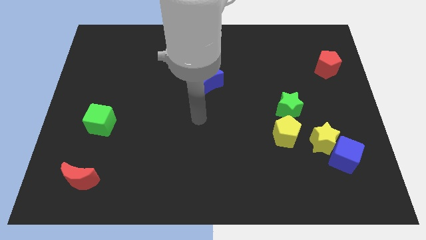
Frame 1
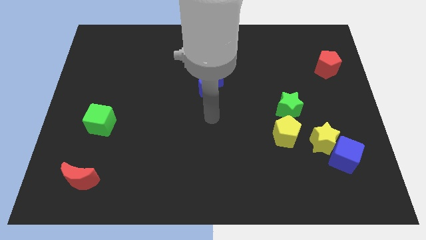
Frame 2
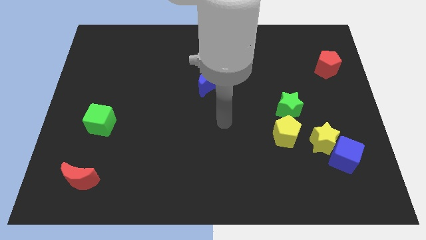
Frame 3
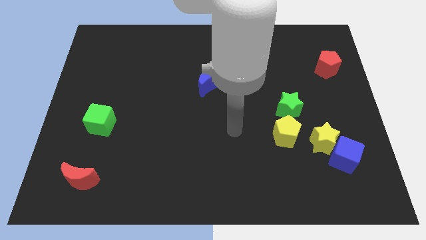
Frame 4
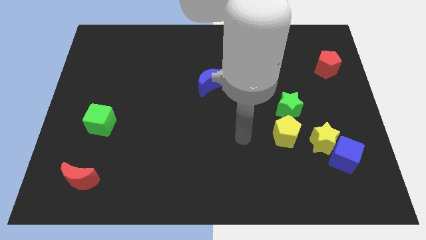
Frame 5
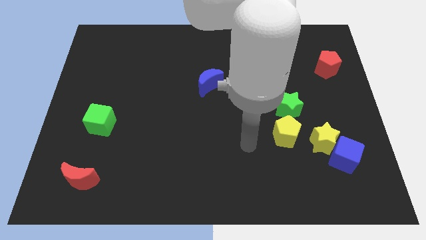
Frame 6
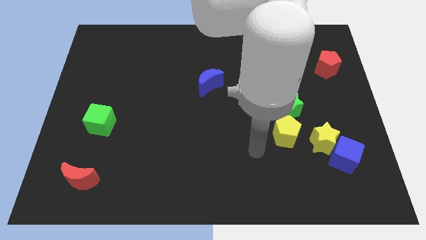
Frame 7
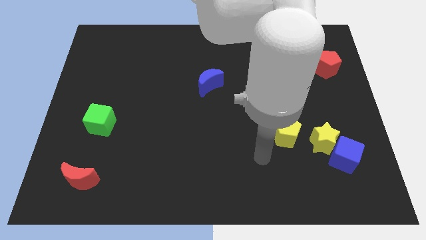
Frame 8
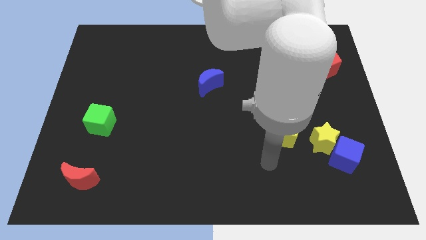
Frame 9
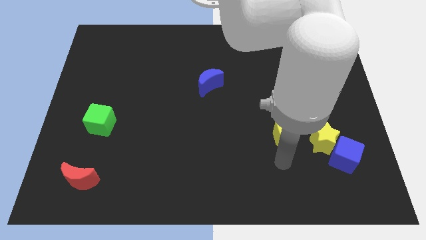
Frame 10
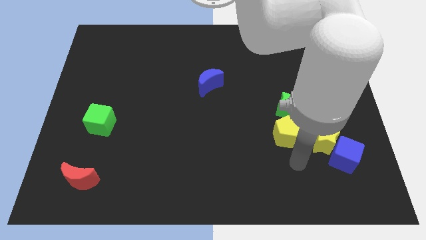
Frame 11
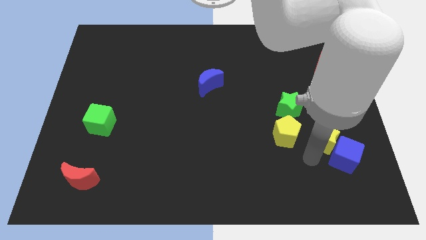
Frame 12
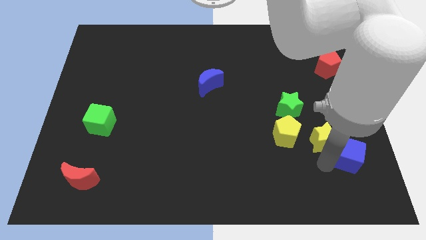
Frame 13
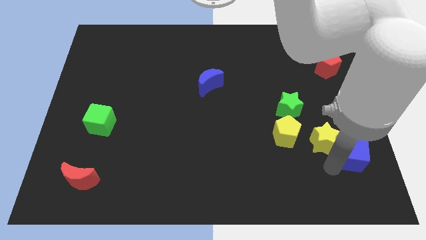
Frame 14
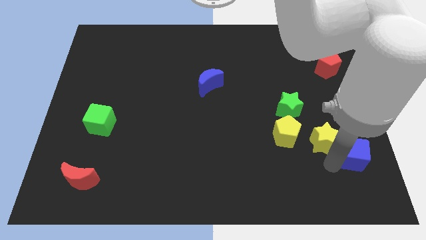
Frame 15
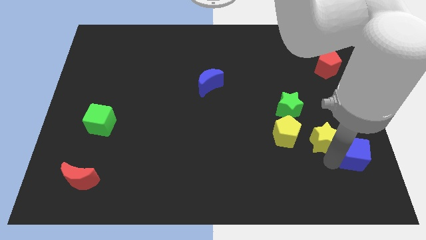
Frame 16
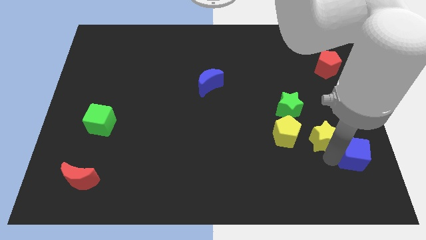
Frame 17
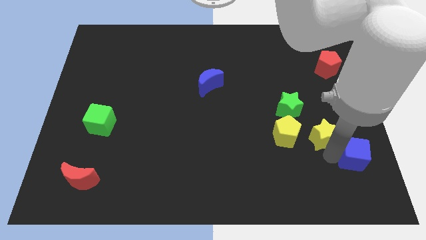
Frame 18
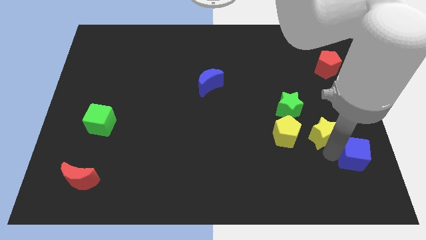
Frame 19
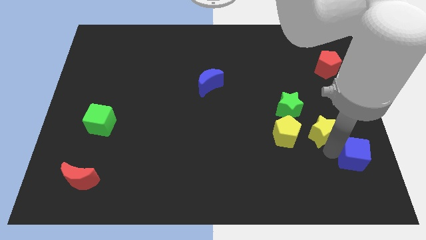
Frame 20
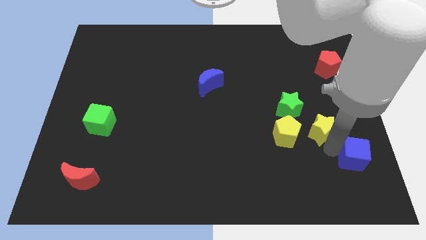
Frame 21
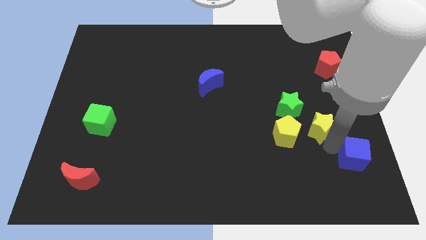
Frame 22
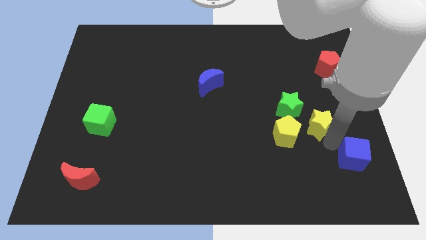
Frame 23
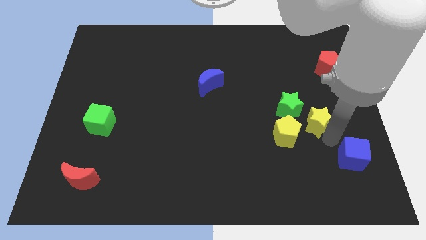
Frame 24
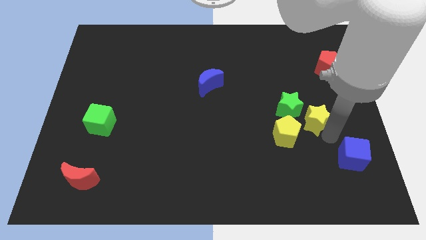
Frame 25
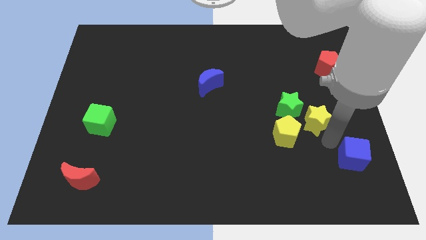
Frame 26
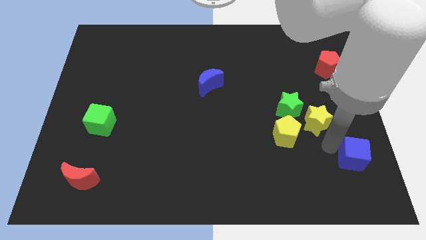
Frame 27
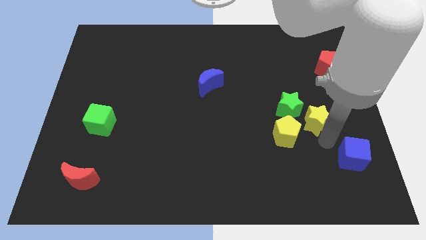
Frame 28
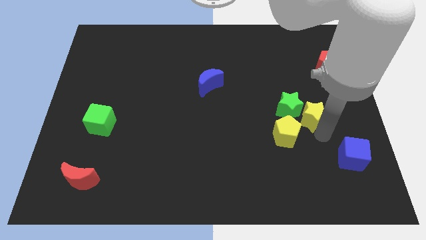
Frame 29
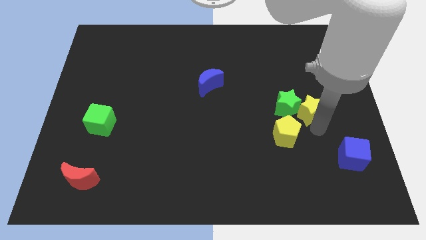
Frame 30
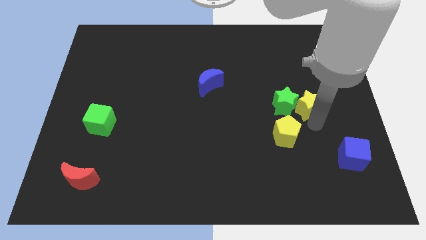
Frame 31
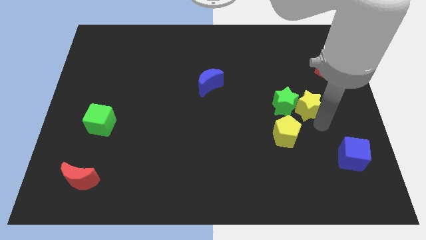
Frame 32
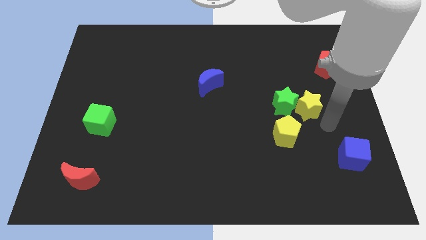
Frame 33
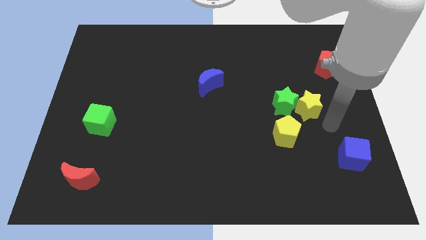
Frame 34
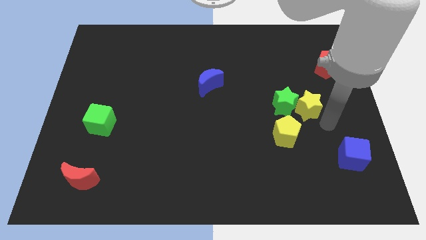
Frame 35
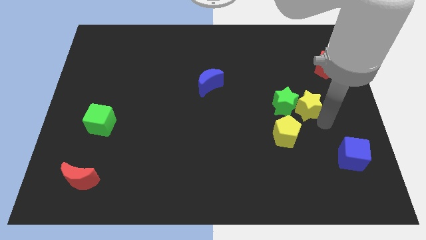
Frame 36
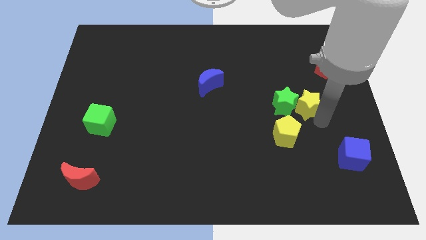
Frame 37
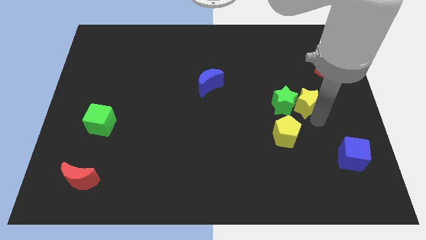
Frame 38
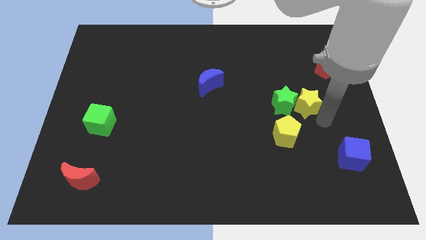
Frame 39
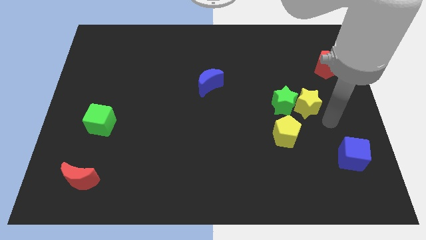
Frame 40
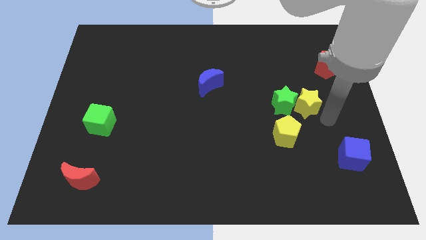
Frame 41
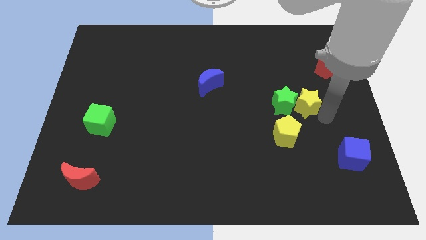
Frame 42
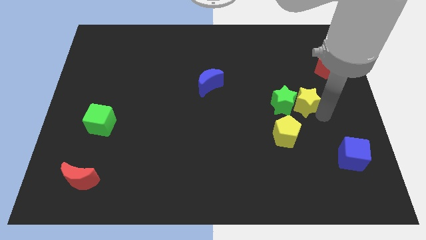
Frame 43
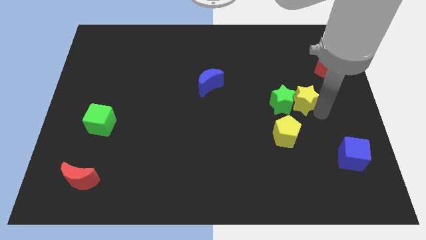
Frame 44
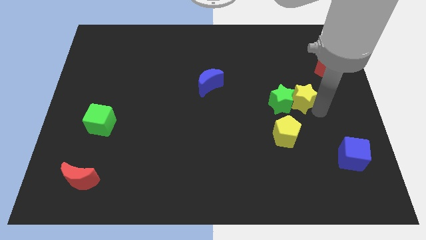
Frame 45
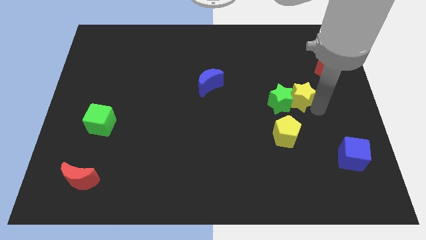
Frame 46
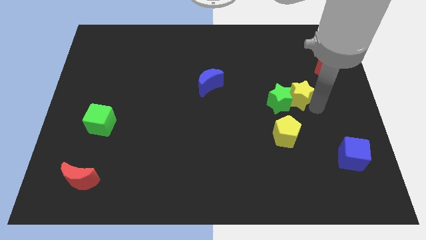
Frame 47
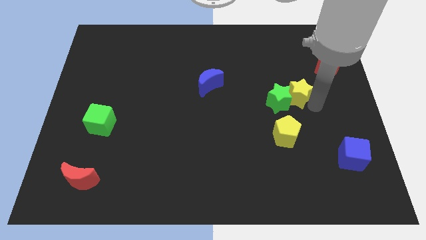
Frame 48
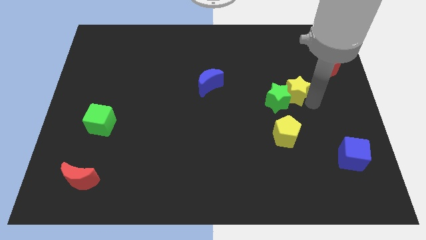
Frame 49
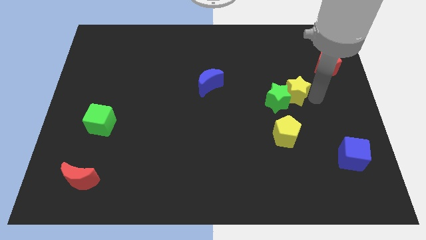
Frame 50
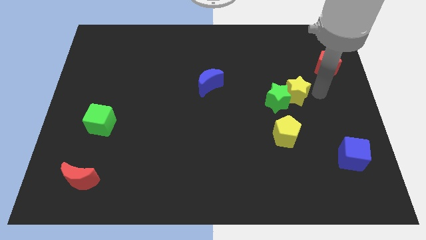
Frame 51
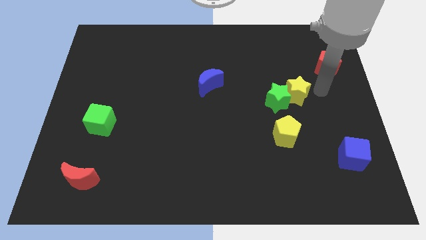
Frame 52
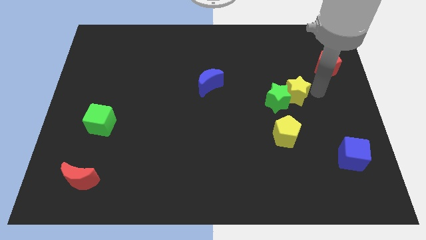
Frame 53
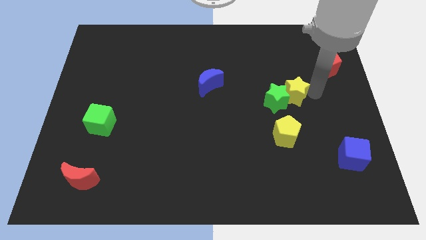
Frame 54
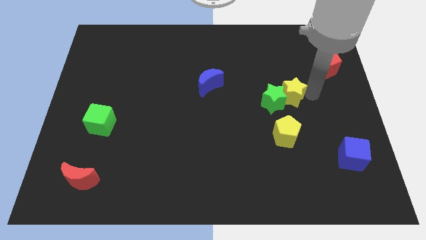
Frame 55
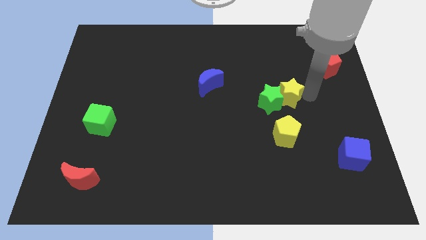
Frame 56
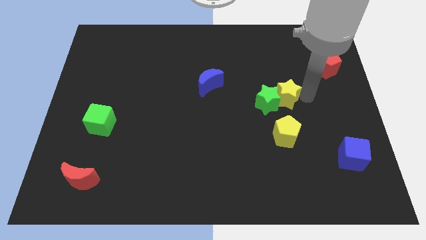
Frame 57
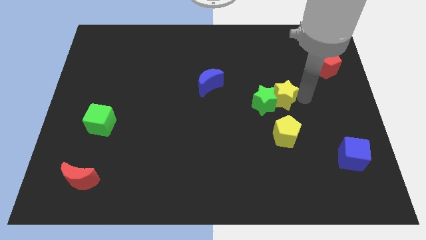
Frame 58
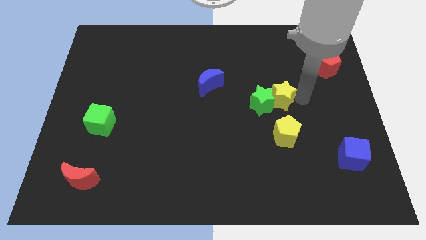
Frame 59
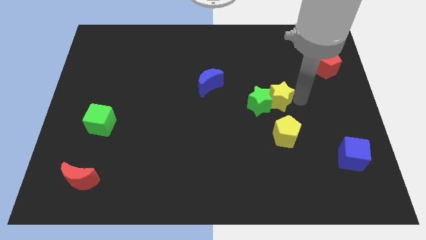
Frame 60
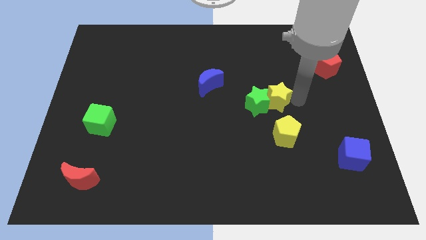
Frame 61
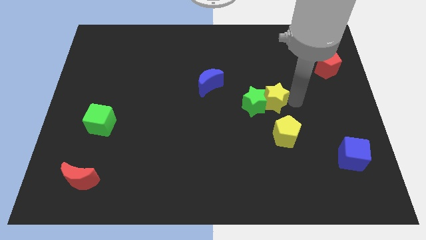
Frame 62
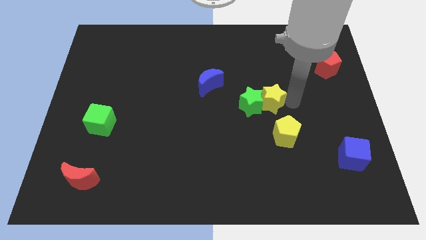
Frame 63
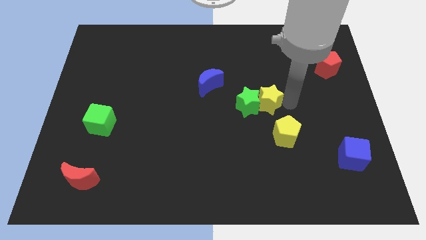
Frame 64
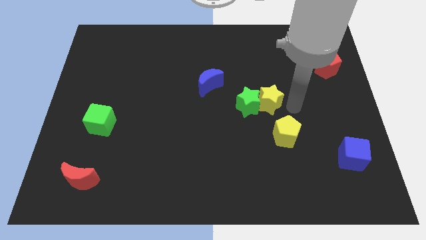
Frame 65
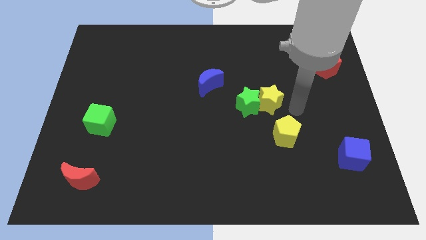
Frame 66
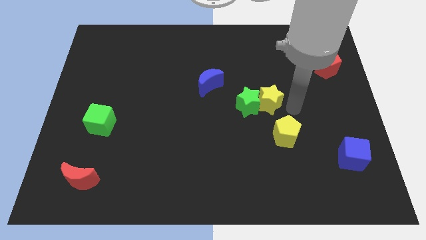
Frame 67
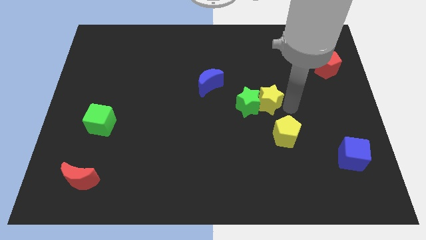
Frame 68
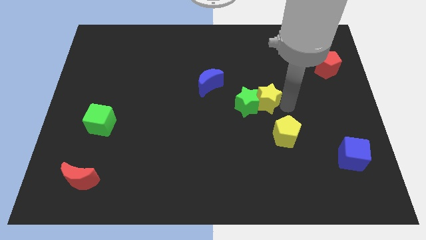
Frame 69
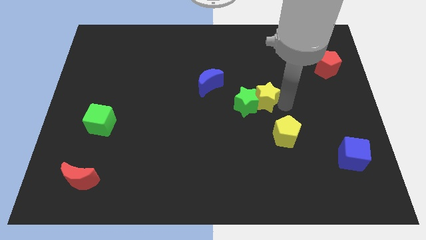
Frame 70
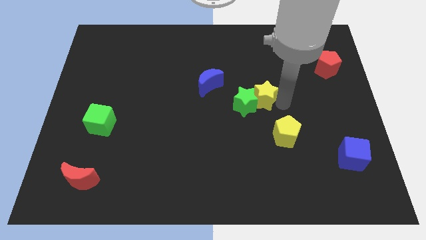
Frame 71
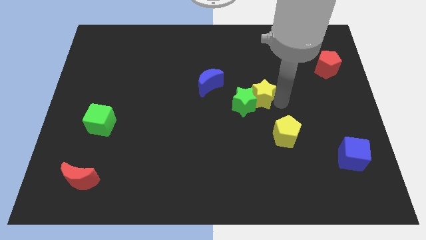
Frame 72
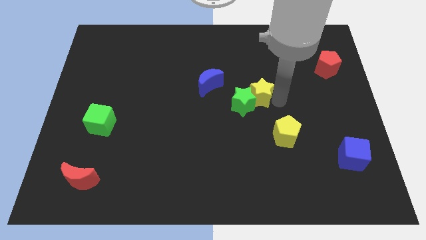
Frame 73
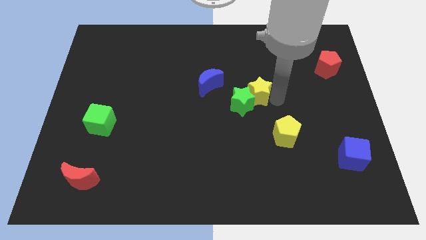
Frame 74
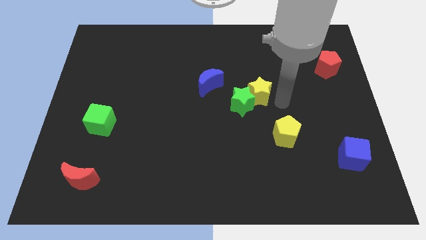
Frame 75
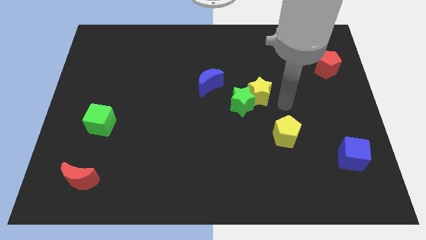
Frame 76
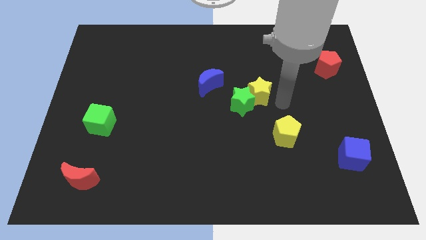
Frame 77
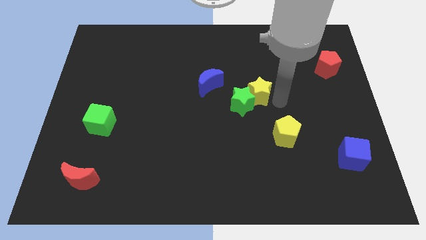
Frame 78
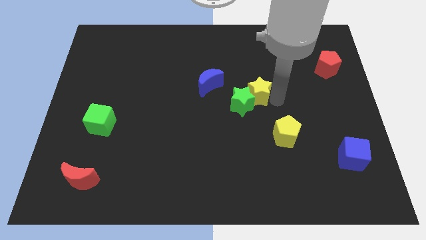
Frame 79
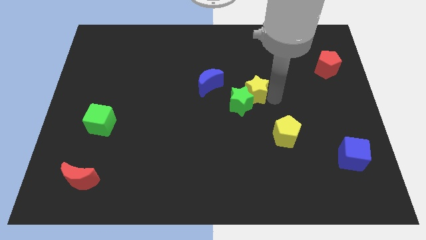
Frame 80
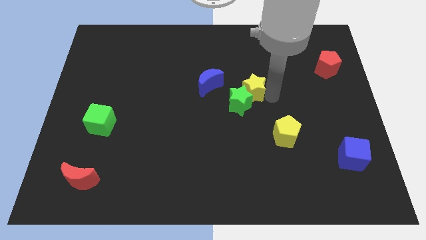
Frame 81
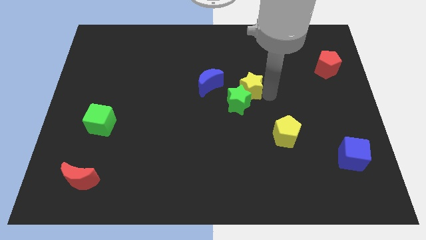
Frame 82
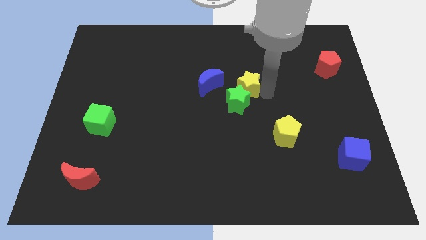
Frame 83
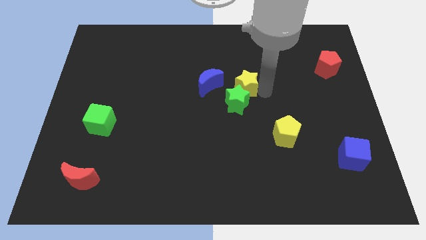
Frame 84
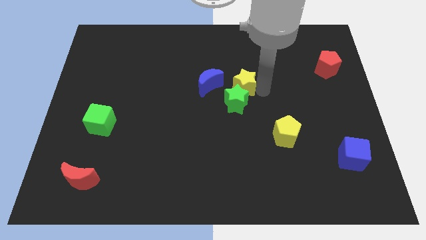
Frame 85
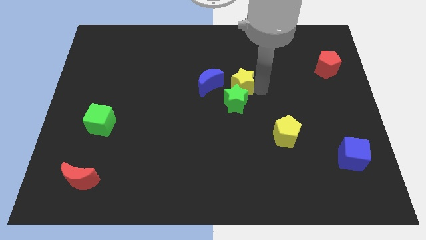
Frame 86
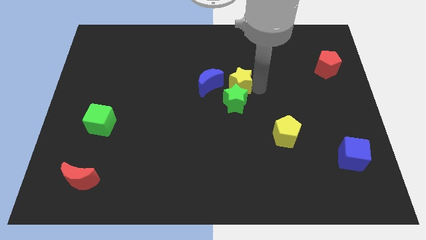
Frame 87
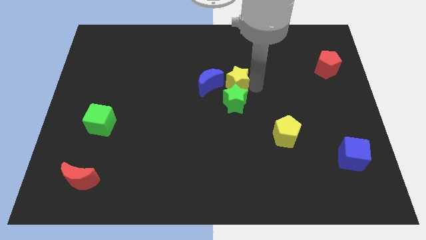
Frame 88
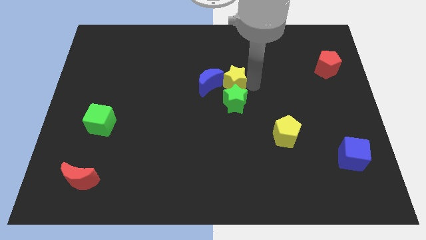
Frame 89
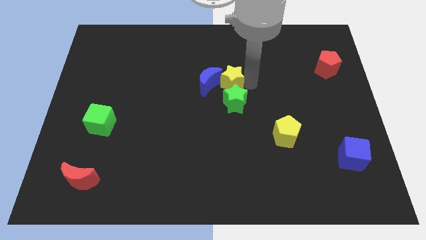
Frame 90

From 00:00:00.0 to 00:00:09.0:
move the yellow star towards the blue moon
